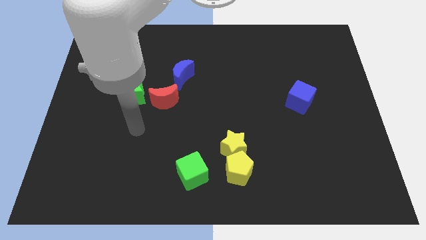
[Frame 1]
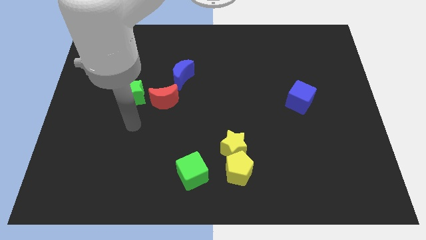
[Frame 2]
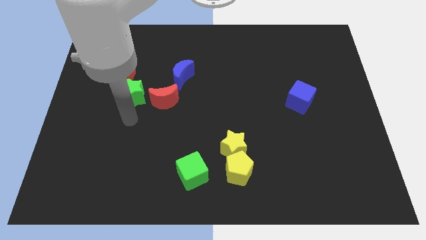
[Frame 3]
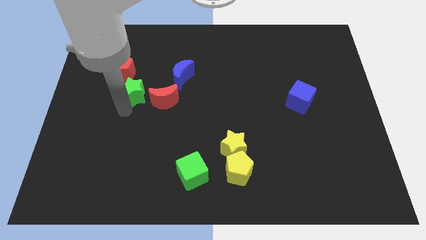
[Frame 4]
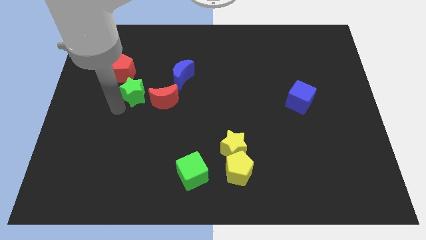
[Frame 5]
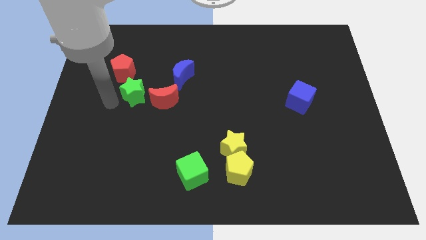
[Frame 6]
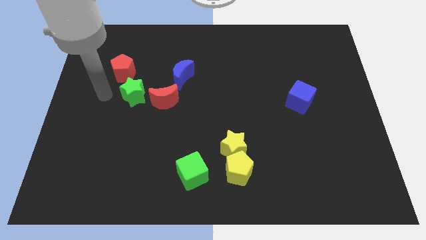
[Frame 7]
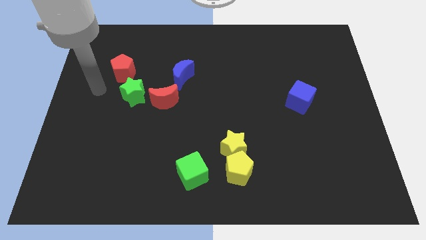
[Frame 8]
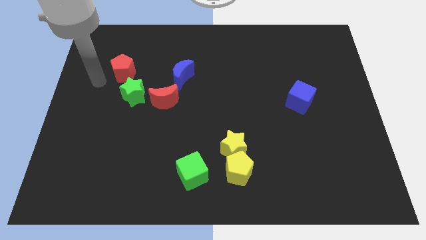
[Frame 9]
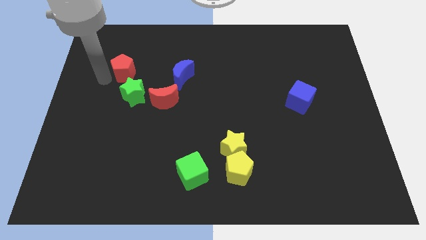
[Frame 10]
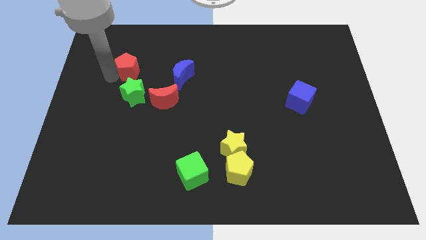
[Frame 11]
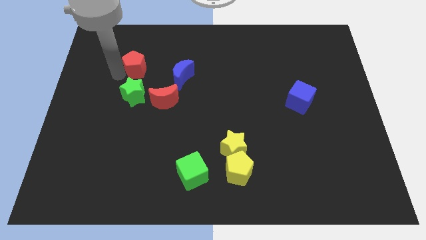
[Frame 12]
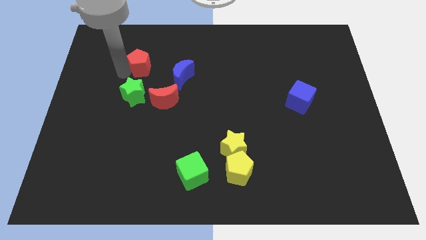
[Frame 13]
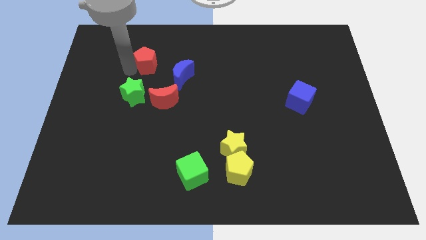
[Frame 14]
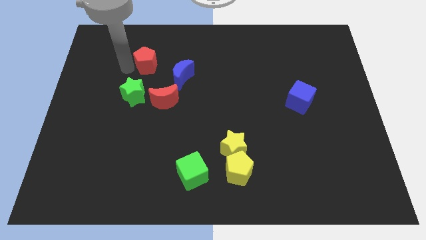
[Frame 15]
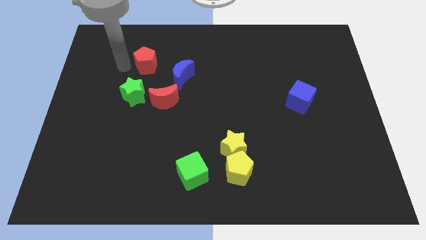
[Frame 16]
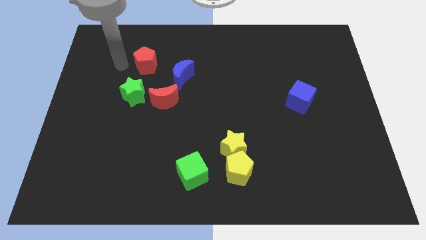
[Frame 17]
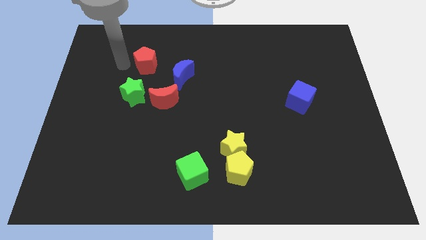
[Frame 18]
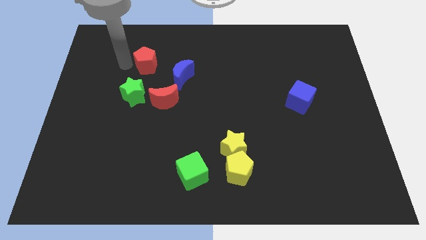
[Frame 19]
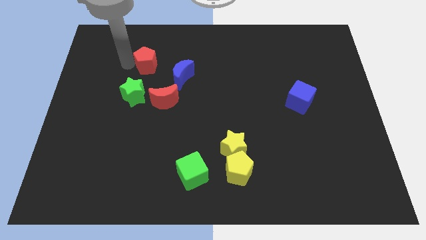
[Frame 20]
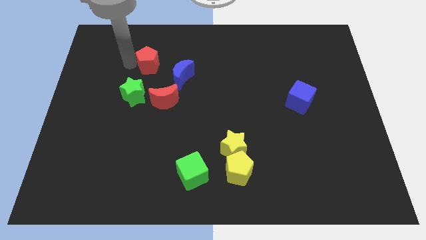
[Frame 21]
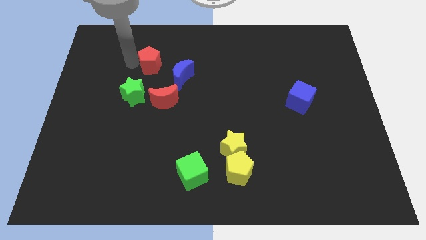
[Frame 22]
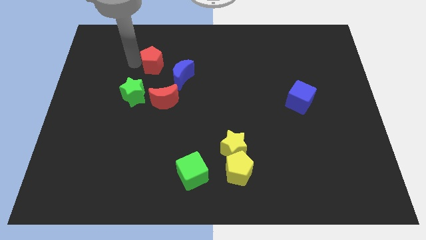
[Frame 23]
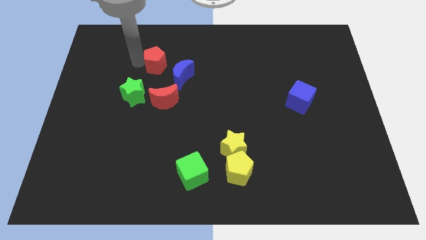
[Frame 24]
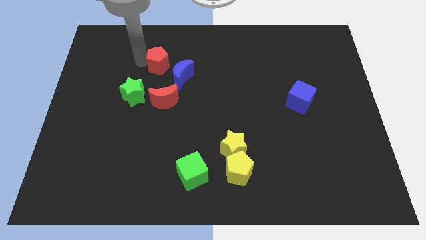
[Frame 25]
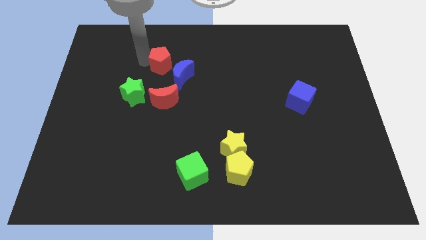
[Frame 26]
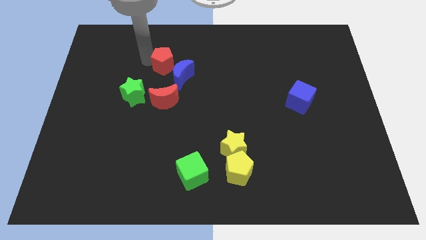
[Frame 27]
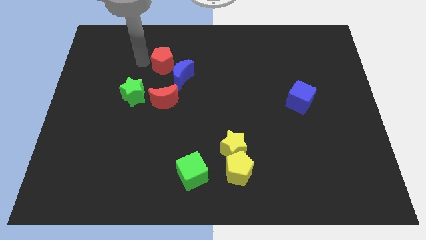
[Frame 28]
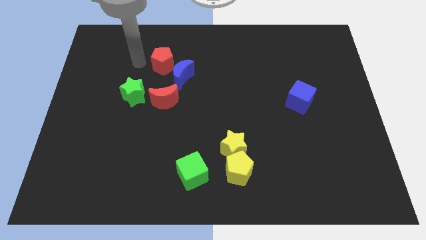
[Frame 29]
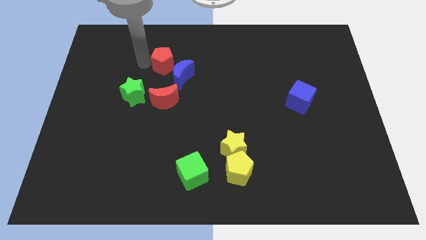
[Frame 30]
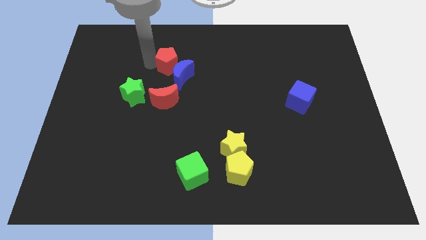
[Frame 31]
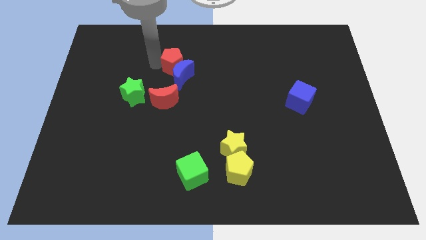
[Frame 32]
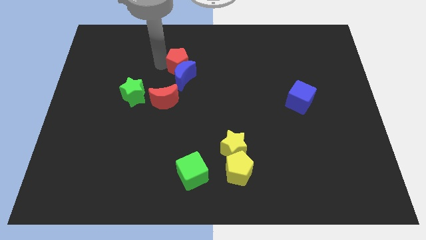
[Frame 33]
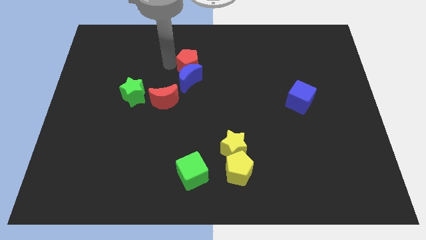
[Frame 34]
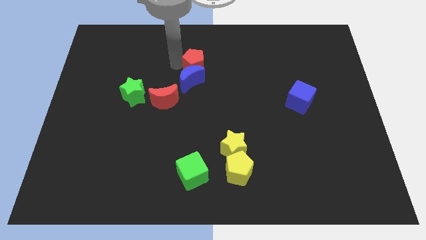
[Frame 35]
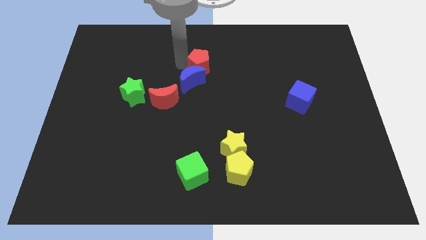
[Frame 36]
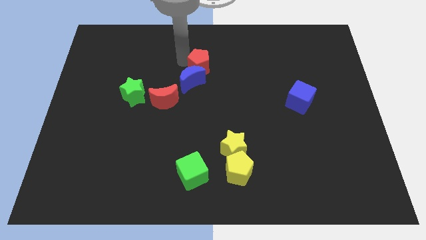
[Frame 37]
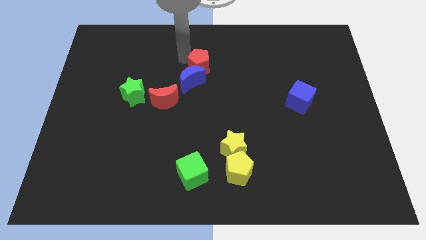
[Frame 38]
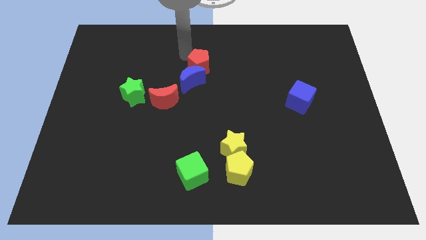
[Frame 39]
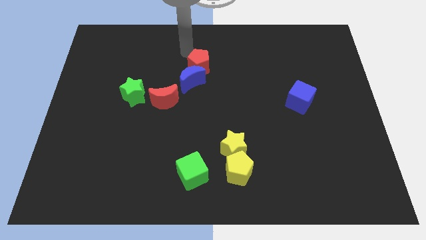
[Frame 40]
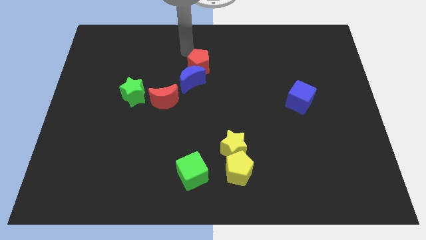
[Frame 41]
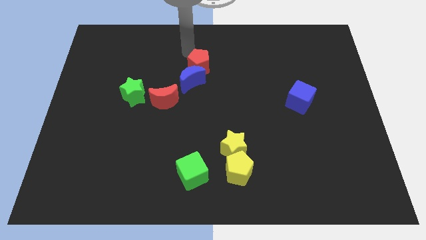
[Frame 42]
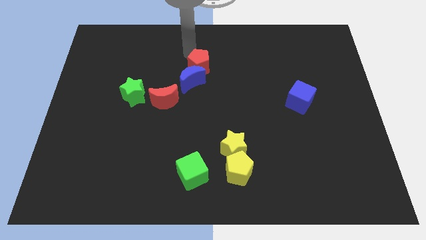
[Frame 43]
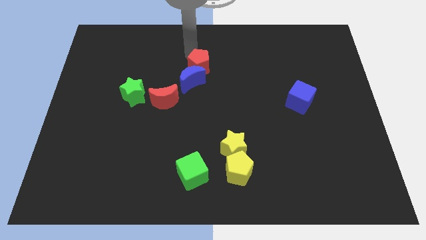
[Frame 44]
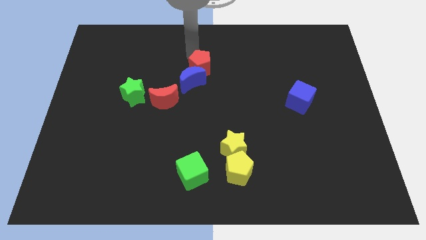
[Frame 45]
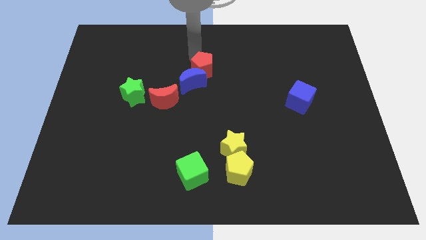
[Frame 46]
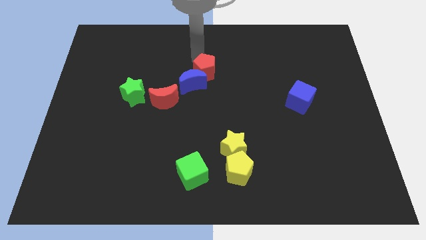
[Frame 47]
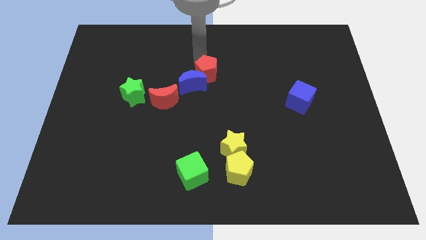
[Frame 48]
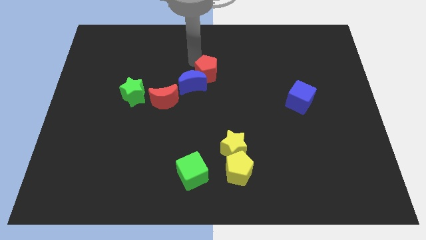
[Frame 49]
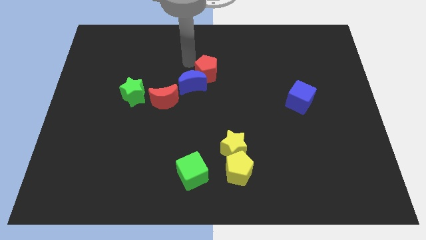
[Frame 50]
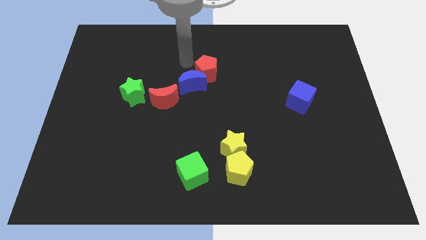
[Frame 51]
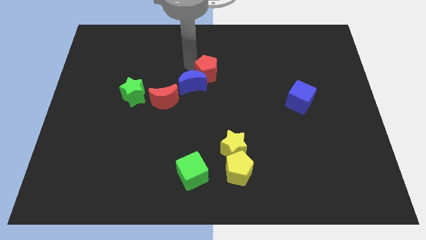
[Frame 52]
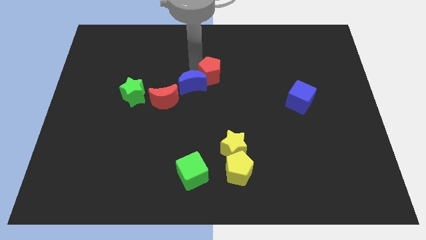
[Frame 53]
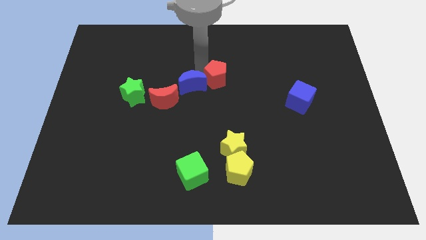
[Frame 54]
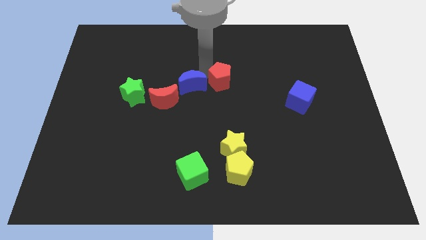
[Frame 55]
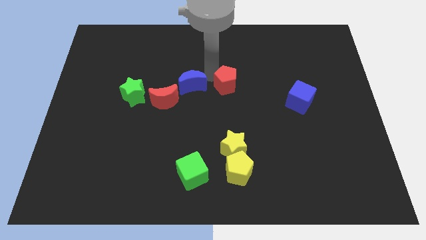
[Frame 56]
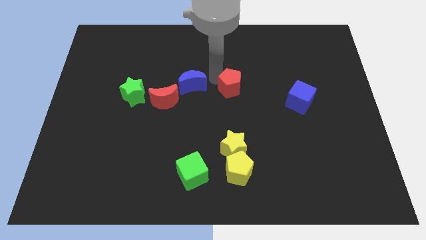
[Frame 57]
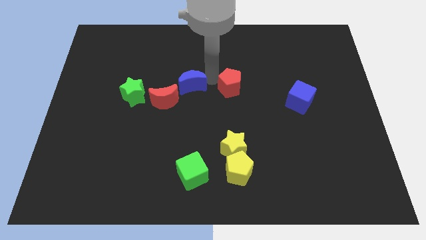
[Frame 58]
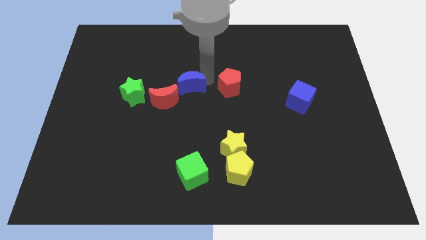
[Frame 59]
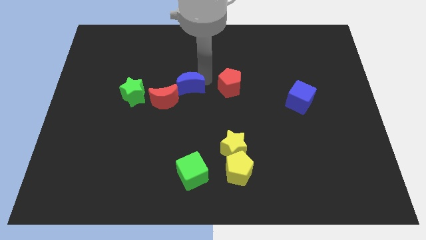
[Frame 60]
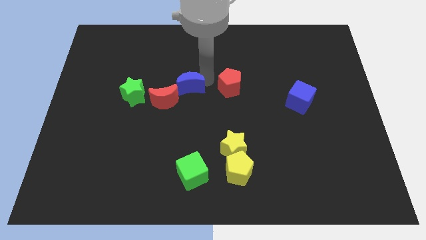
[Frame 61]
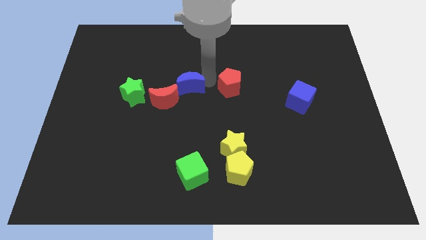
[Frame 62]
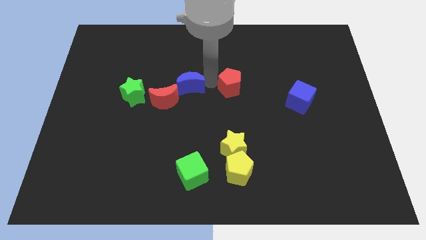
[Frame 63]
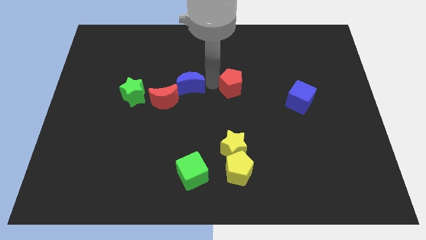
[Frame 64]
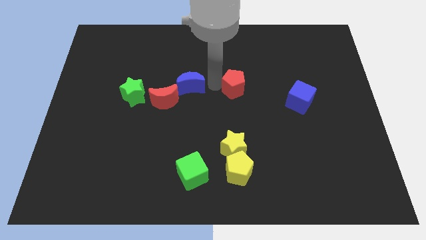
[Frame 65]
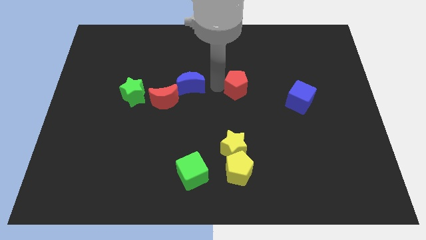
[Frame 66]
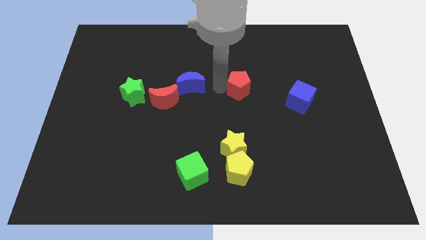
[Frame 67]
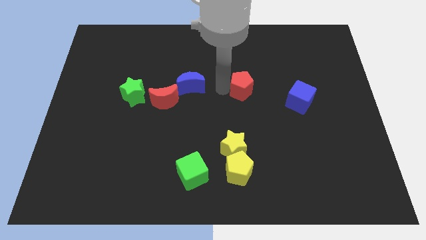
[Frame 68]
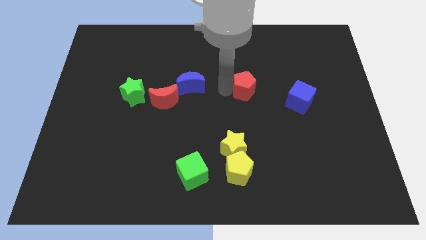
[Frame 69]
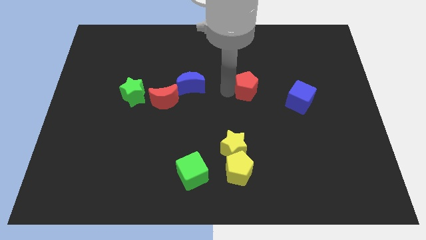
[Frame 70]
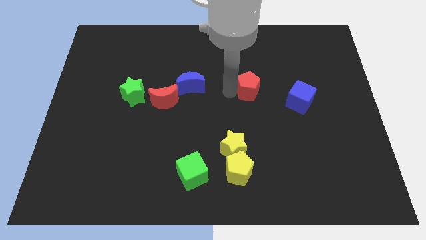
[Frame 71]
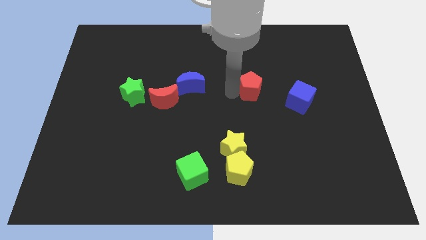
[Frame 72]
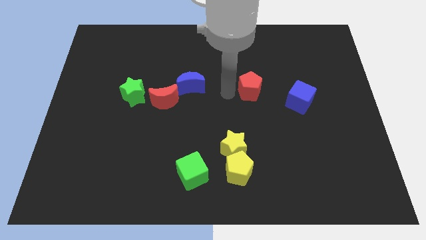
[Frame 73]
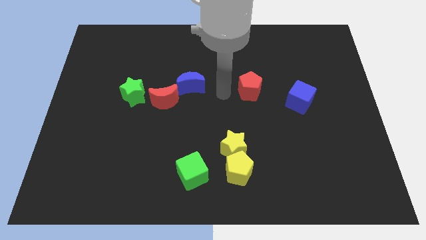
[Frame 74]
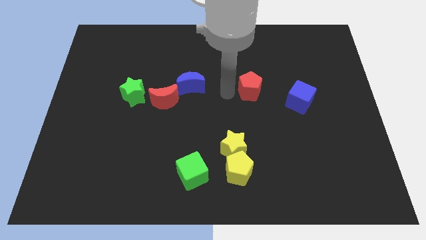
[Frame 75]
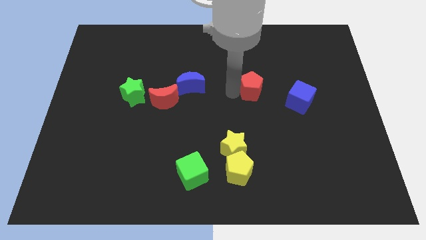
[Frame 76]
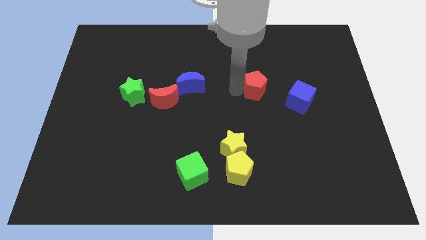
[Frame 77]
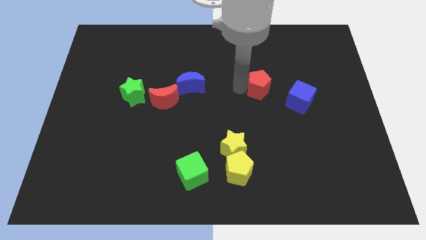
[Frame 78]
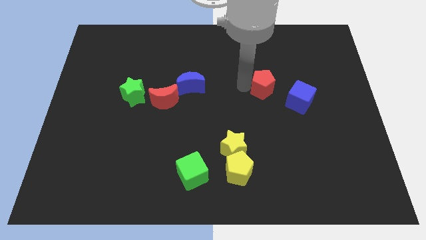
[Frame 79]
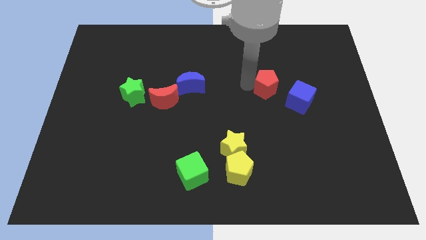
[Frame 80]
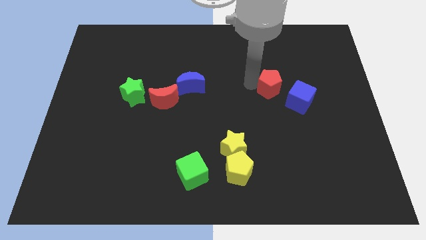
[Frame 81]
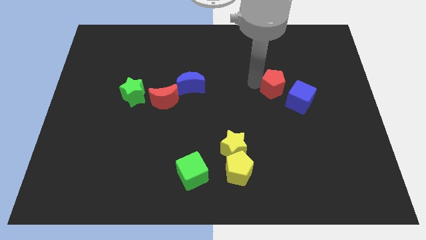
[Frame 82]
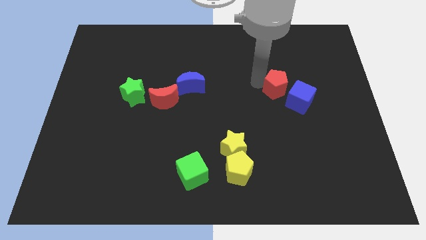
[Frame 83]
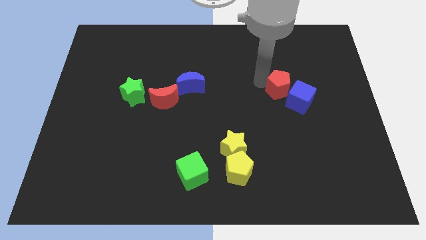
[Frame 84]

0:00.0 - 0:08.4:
move the red pentagon next to the blue cube

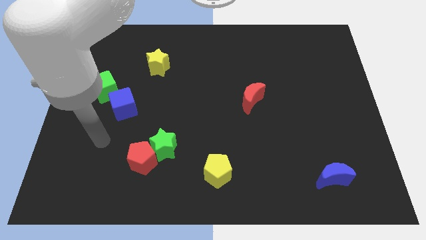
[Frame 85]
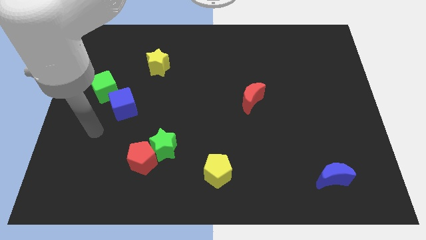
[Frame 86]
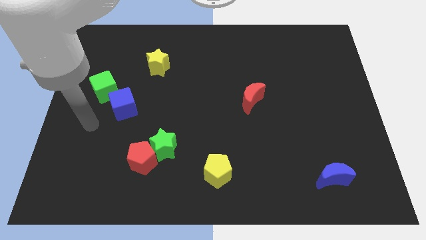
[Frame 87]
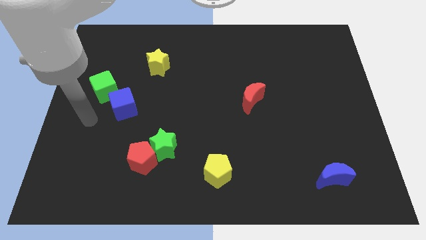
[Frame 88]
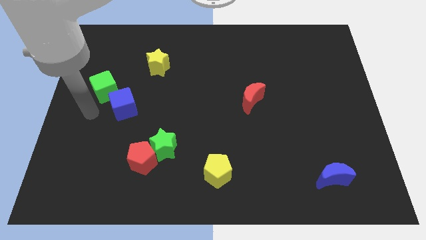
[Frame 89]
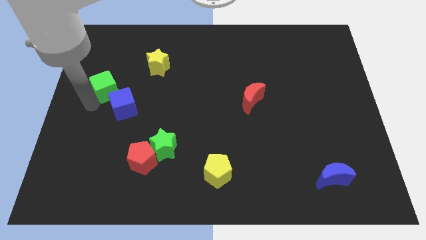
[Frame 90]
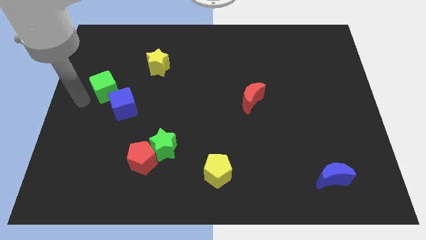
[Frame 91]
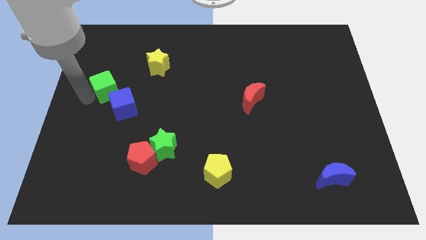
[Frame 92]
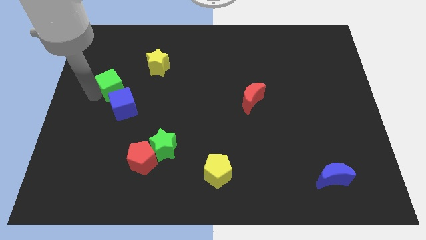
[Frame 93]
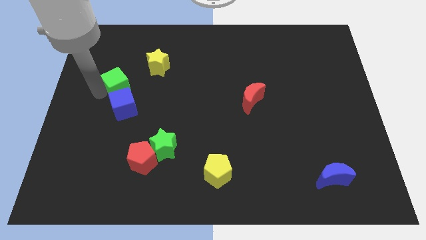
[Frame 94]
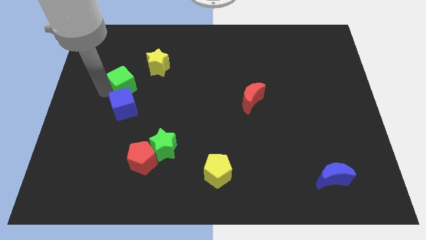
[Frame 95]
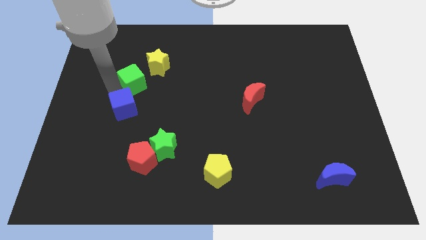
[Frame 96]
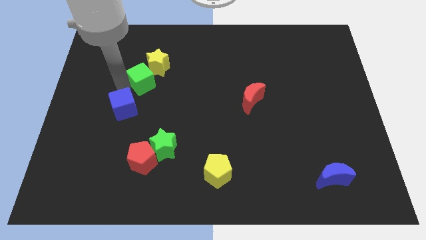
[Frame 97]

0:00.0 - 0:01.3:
move the green cube next to the yellow star
